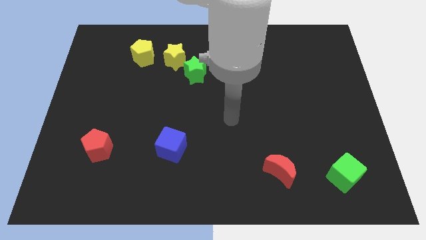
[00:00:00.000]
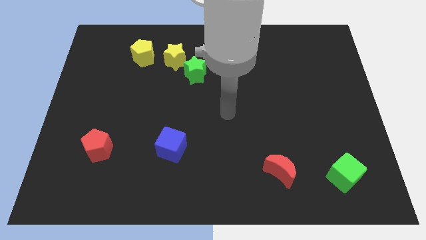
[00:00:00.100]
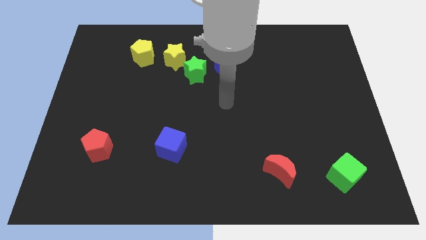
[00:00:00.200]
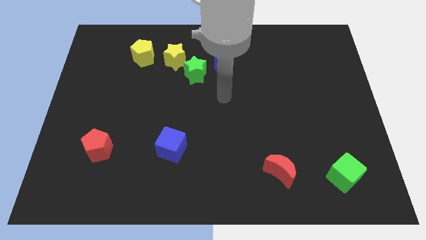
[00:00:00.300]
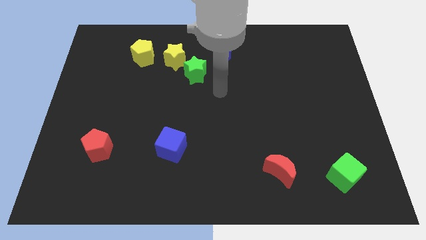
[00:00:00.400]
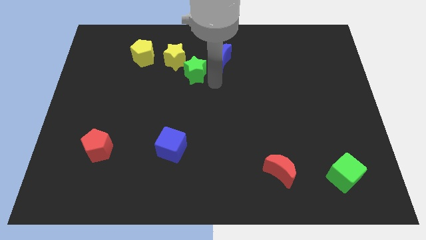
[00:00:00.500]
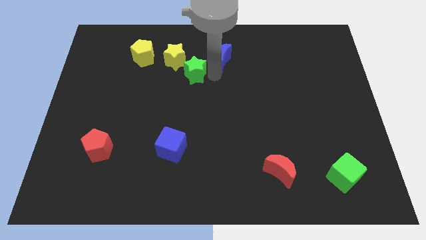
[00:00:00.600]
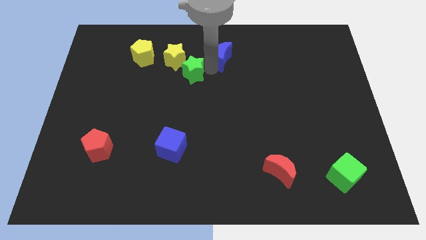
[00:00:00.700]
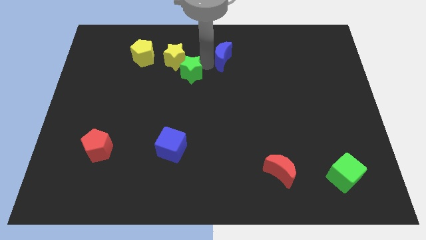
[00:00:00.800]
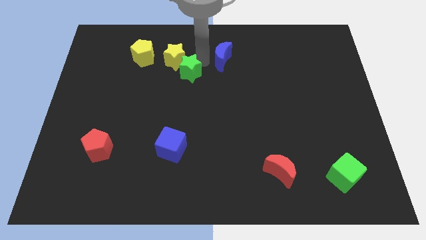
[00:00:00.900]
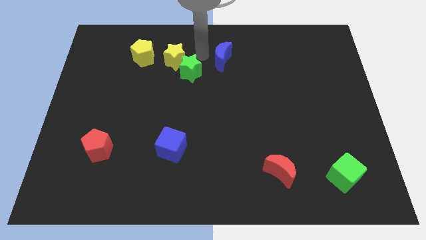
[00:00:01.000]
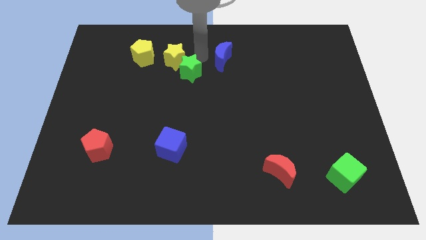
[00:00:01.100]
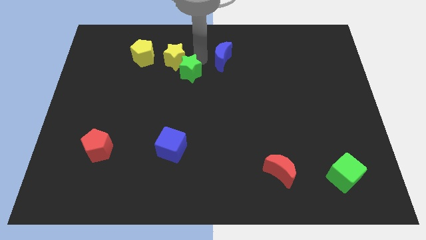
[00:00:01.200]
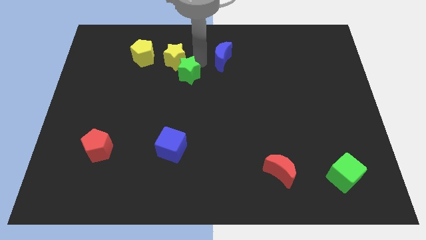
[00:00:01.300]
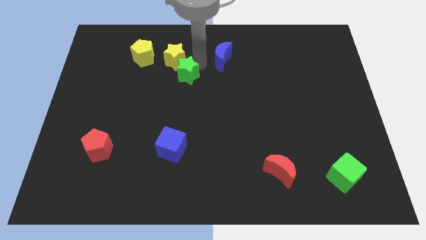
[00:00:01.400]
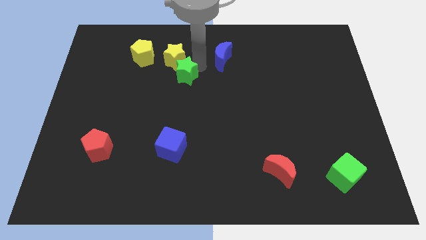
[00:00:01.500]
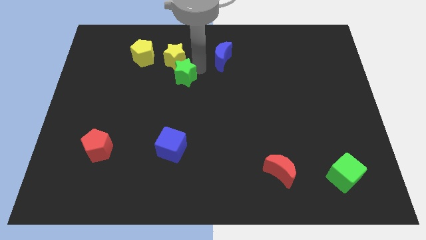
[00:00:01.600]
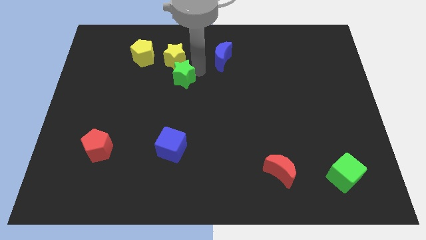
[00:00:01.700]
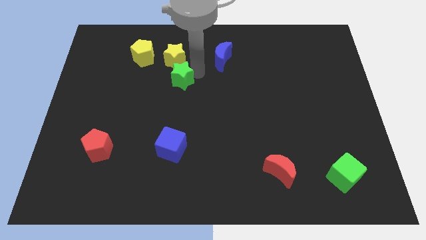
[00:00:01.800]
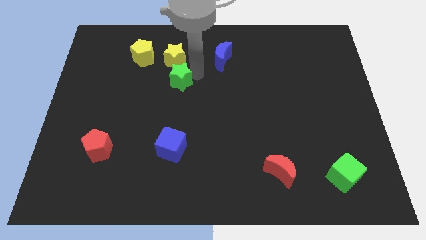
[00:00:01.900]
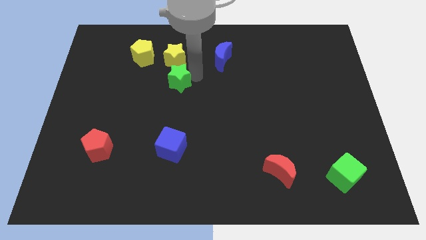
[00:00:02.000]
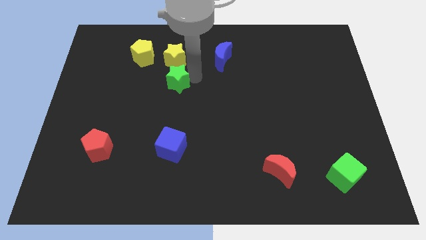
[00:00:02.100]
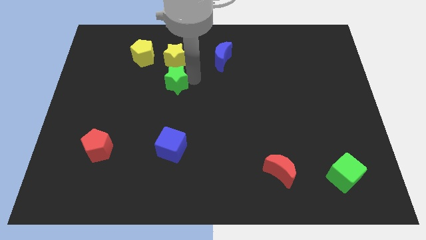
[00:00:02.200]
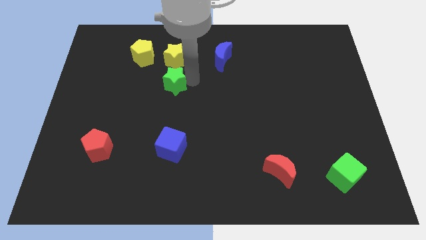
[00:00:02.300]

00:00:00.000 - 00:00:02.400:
separate the green star from the yellow star and blue moon

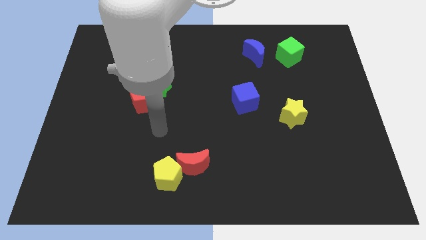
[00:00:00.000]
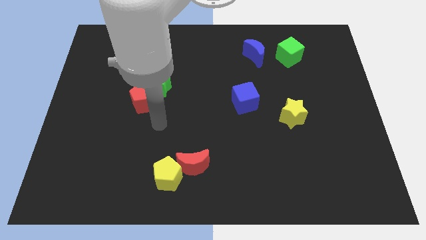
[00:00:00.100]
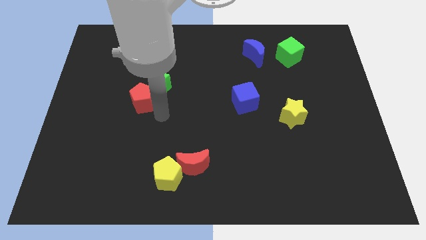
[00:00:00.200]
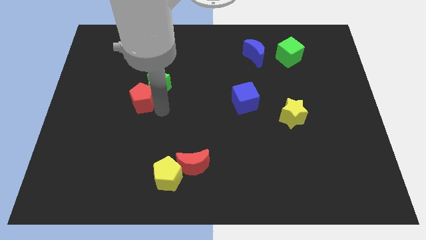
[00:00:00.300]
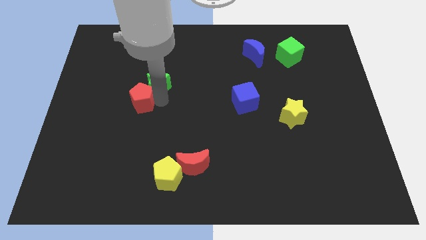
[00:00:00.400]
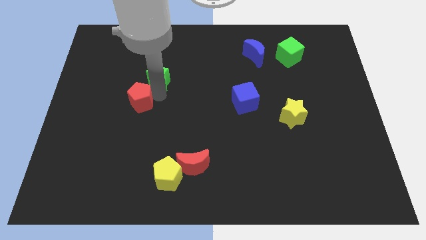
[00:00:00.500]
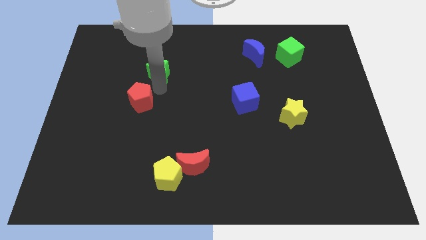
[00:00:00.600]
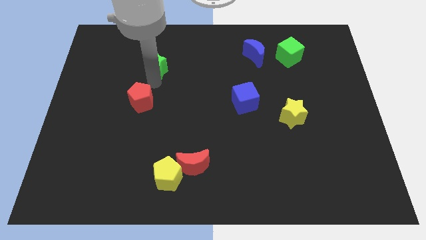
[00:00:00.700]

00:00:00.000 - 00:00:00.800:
move the red pentagon away from the green star

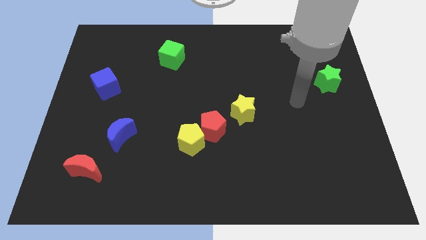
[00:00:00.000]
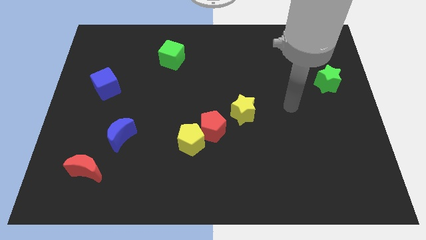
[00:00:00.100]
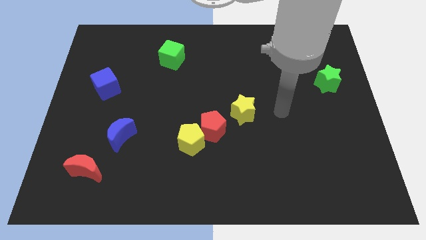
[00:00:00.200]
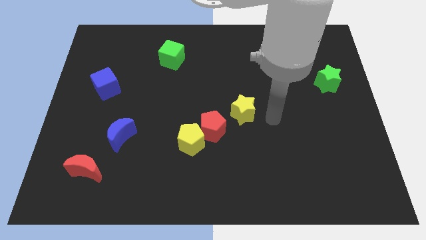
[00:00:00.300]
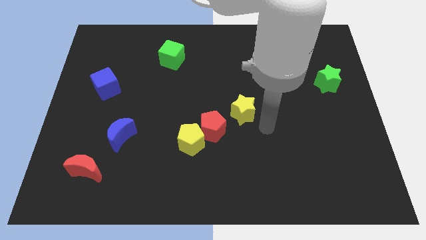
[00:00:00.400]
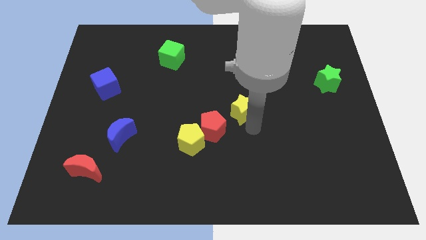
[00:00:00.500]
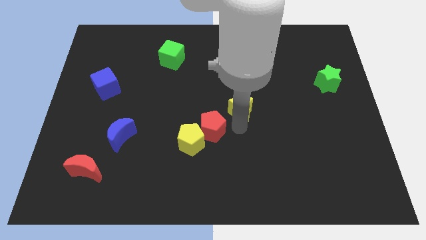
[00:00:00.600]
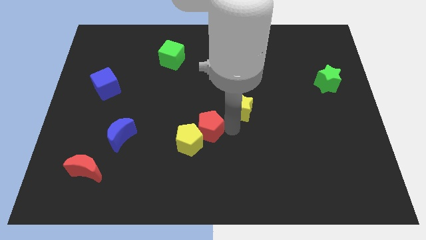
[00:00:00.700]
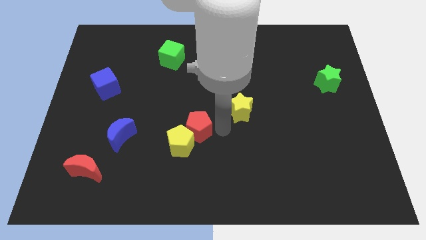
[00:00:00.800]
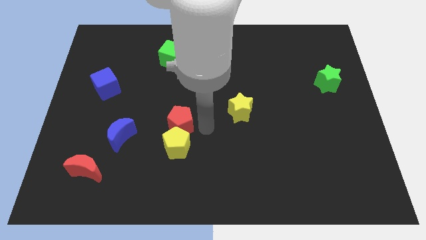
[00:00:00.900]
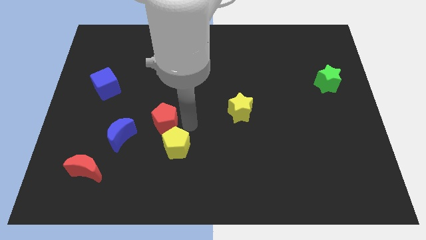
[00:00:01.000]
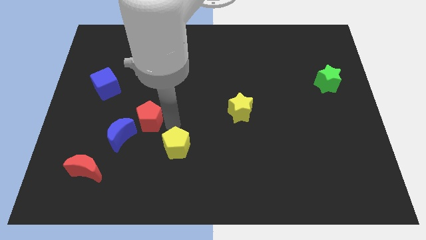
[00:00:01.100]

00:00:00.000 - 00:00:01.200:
pull the yellow pentagon apart from the red pentagon

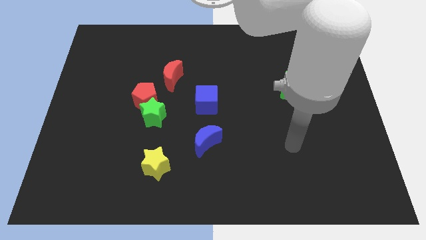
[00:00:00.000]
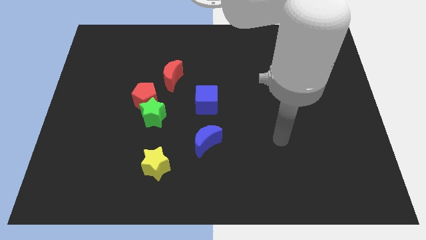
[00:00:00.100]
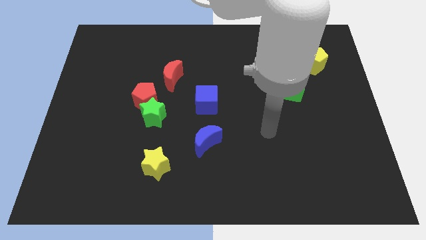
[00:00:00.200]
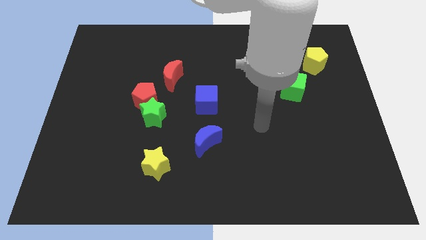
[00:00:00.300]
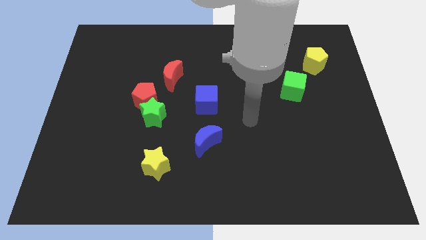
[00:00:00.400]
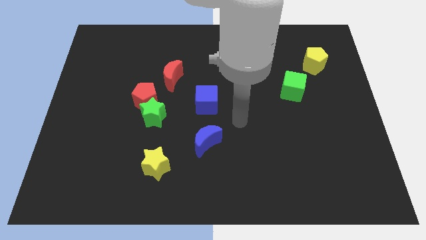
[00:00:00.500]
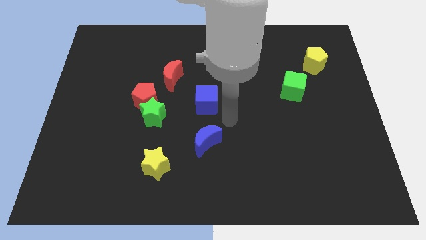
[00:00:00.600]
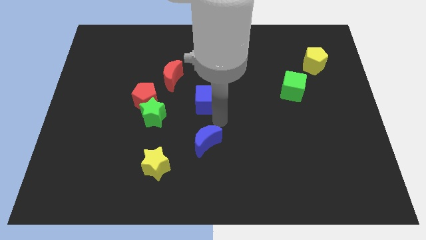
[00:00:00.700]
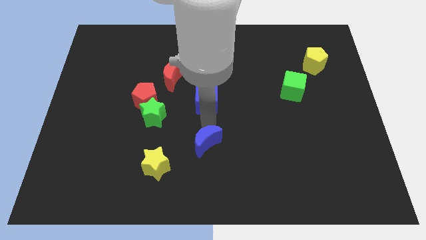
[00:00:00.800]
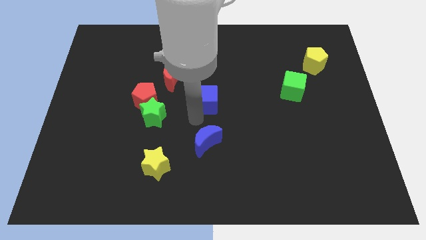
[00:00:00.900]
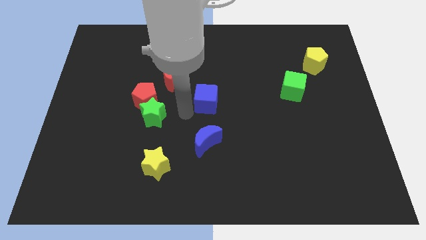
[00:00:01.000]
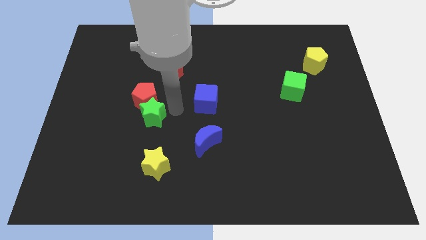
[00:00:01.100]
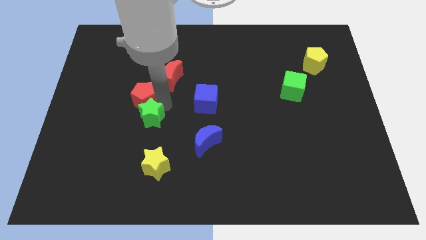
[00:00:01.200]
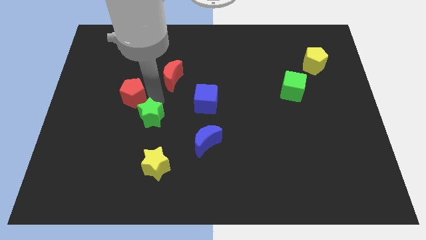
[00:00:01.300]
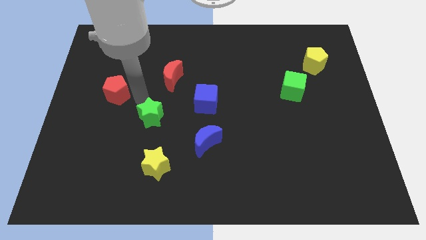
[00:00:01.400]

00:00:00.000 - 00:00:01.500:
move the green star away from the red pentagon

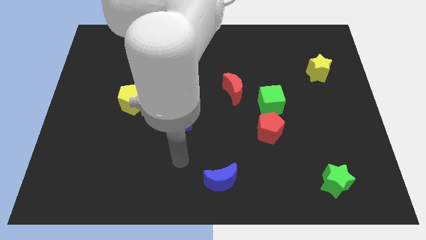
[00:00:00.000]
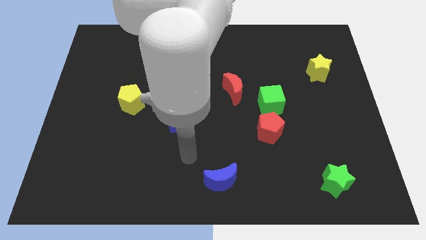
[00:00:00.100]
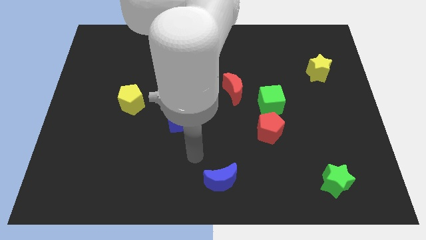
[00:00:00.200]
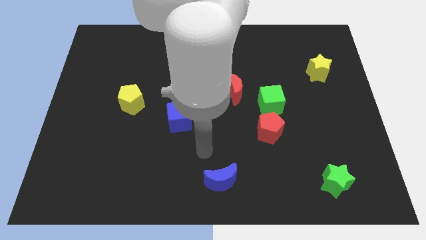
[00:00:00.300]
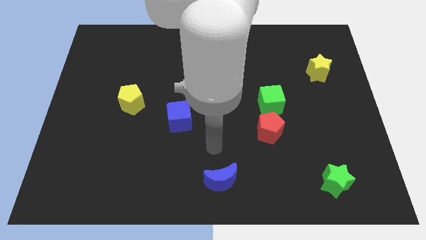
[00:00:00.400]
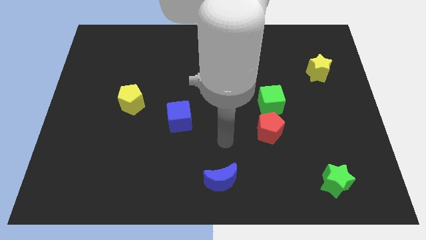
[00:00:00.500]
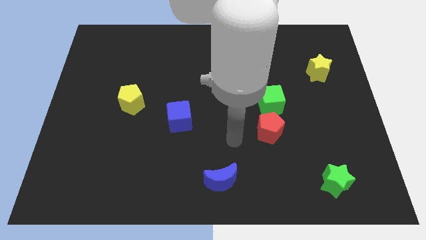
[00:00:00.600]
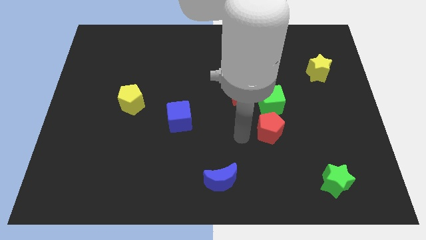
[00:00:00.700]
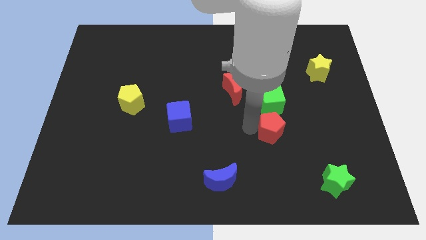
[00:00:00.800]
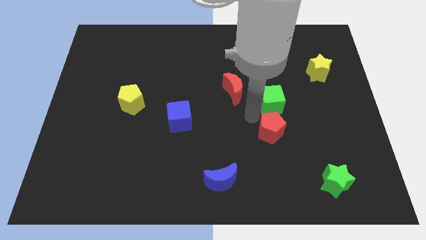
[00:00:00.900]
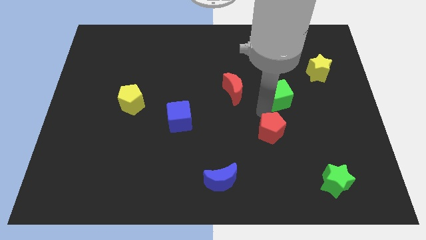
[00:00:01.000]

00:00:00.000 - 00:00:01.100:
separate the red pentagon from the green cube

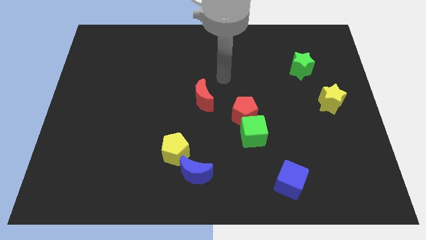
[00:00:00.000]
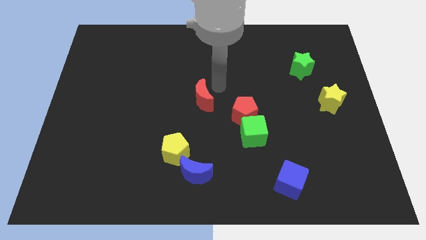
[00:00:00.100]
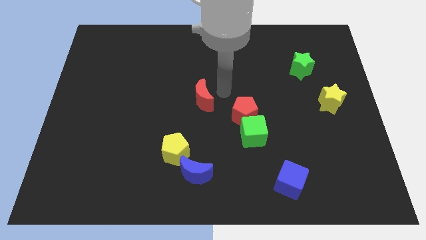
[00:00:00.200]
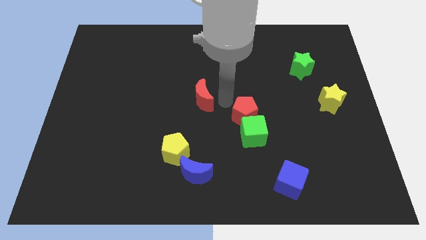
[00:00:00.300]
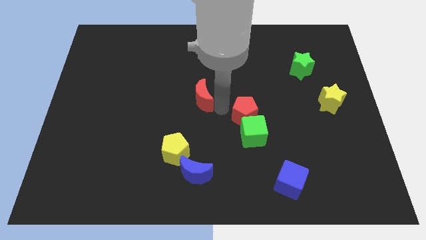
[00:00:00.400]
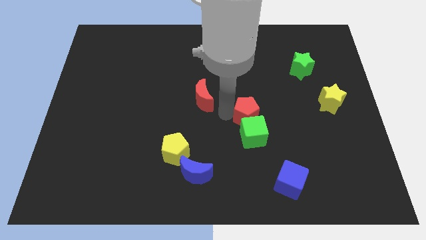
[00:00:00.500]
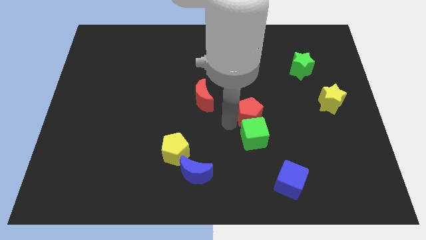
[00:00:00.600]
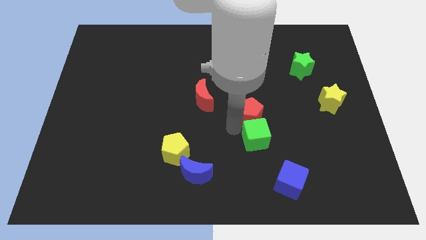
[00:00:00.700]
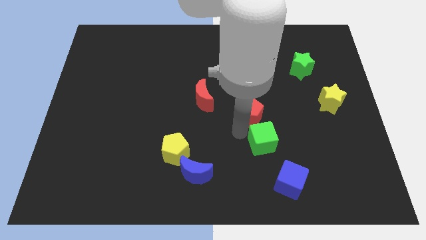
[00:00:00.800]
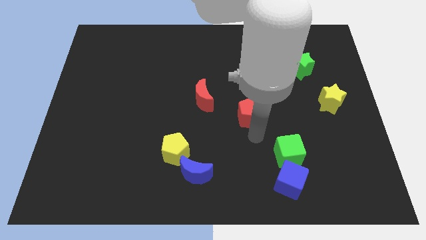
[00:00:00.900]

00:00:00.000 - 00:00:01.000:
pull the red pentagon apart from the green cube

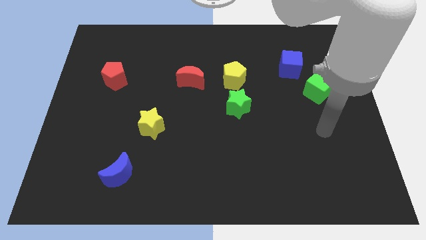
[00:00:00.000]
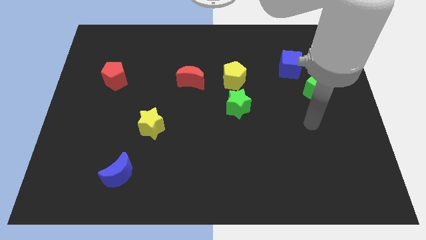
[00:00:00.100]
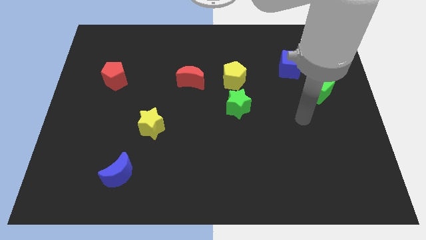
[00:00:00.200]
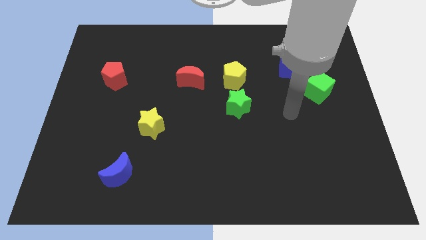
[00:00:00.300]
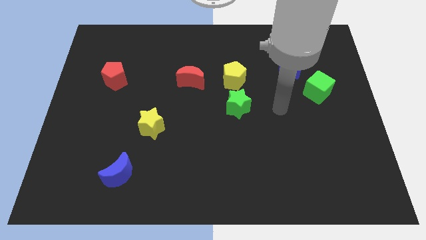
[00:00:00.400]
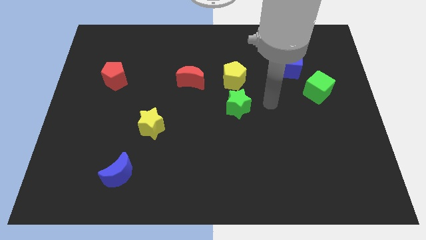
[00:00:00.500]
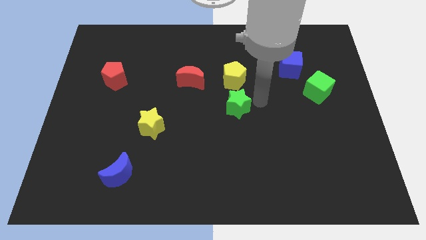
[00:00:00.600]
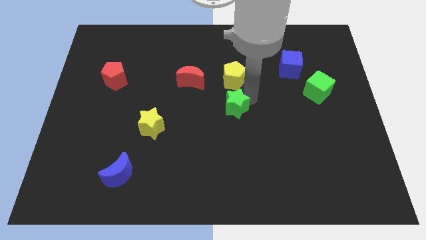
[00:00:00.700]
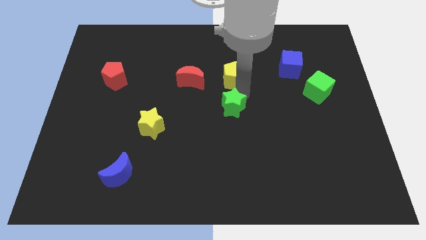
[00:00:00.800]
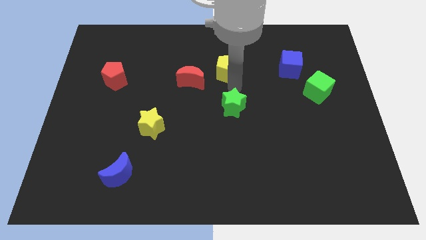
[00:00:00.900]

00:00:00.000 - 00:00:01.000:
separate the green star from the yellow pentagon

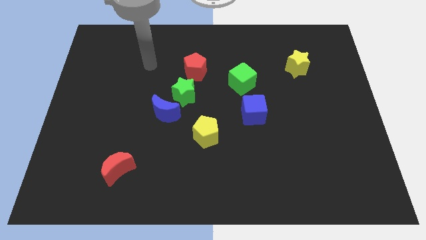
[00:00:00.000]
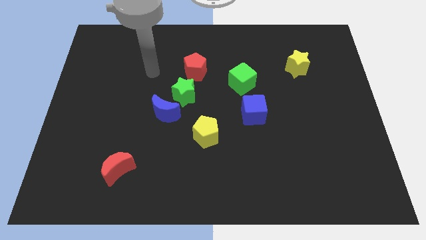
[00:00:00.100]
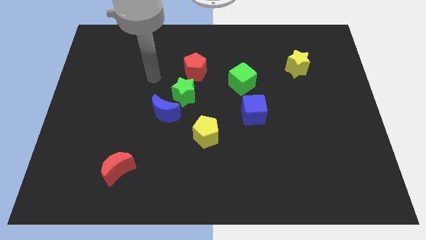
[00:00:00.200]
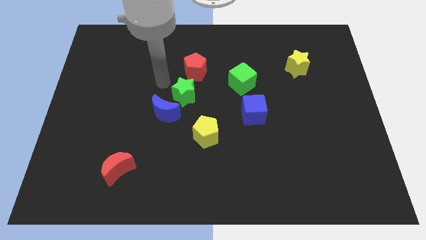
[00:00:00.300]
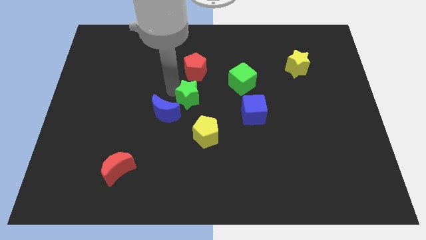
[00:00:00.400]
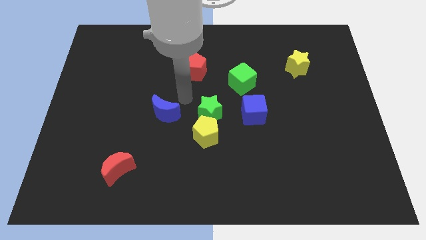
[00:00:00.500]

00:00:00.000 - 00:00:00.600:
separate the blue moon from the green star
